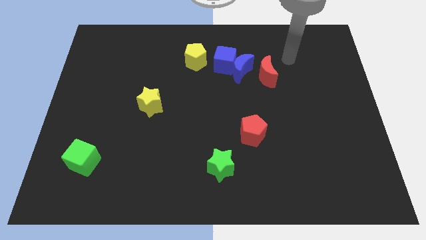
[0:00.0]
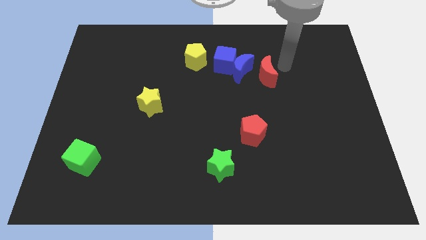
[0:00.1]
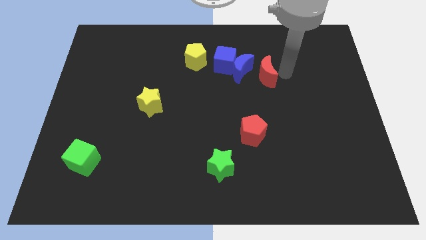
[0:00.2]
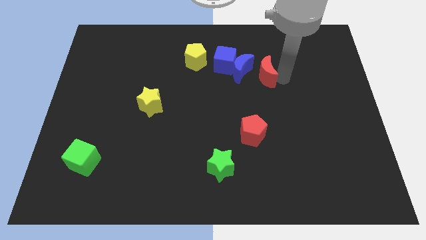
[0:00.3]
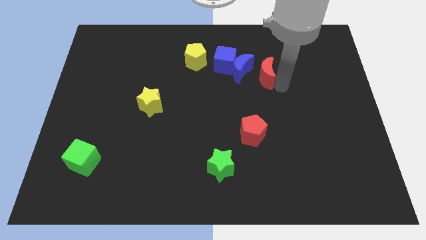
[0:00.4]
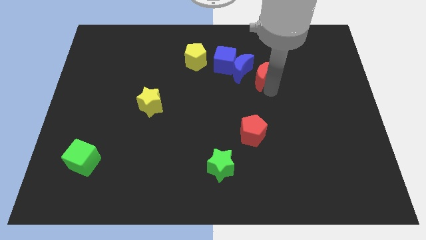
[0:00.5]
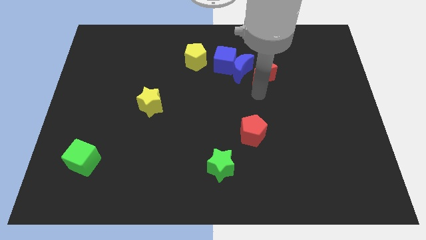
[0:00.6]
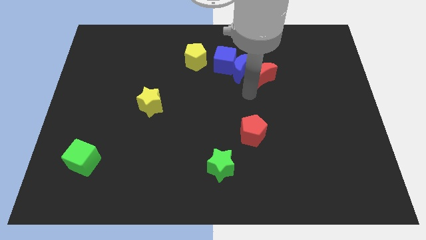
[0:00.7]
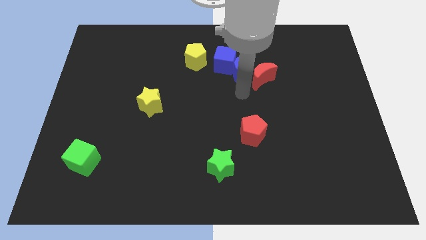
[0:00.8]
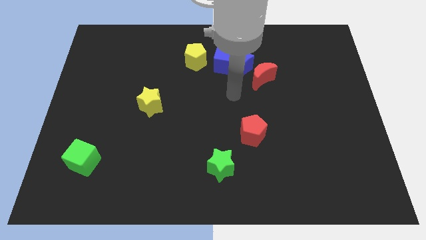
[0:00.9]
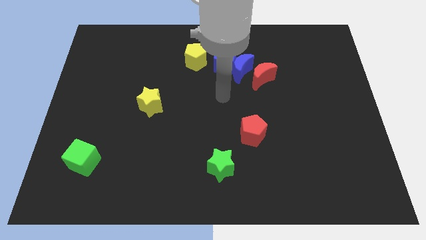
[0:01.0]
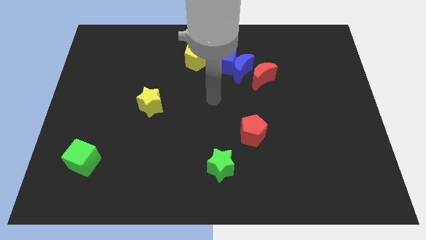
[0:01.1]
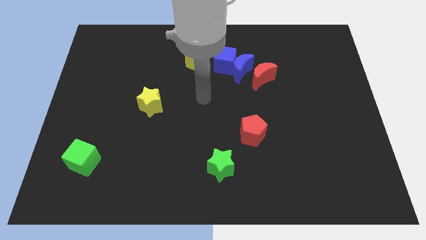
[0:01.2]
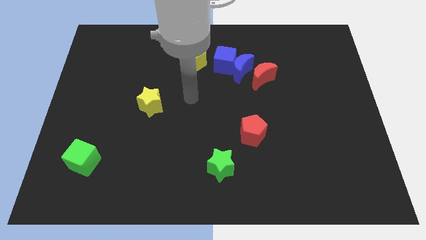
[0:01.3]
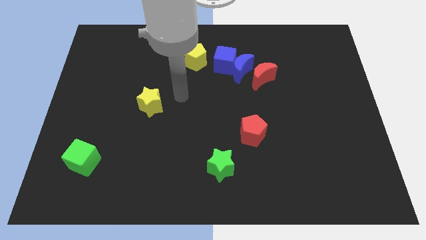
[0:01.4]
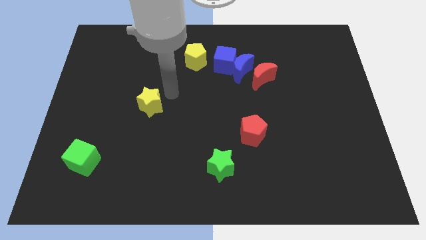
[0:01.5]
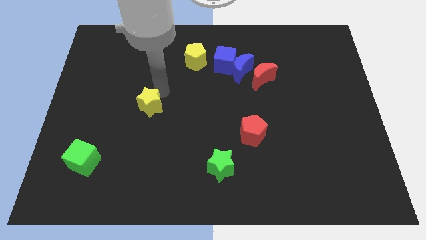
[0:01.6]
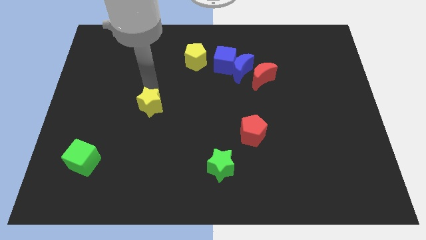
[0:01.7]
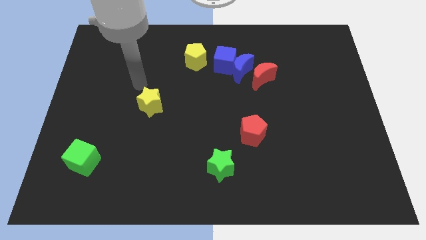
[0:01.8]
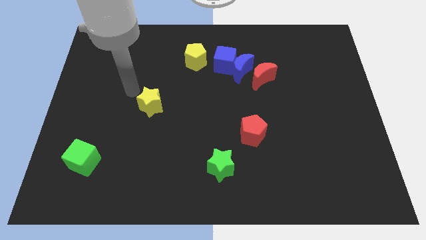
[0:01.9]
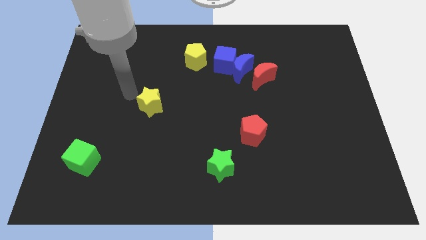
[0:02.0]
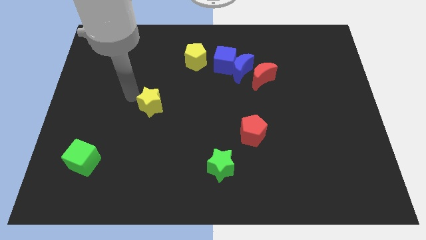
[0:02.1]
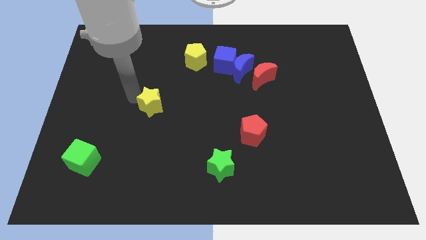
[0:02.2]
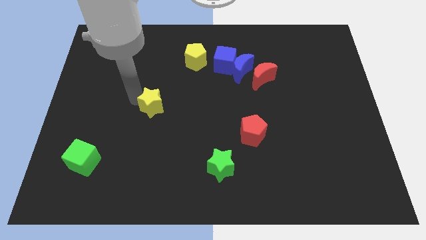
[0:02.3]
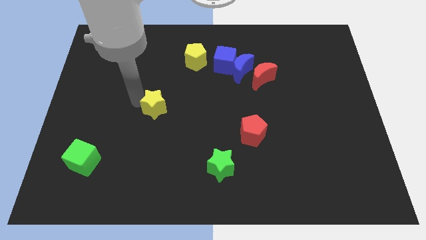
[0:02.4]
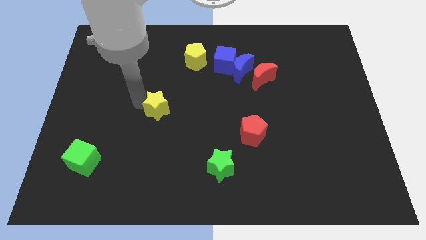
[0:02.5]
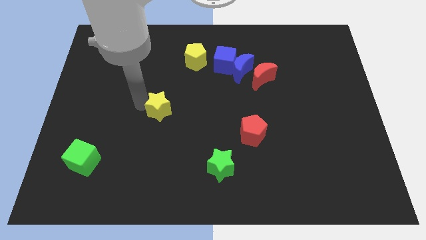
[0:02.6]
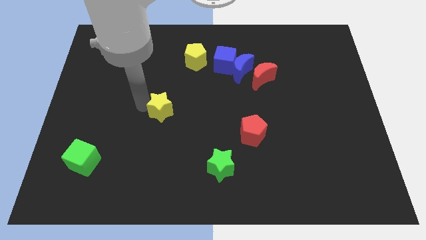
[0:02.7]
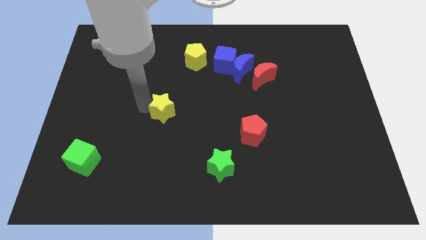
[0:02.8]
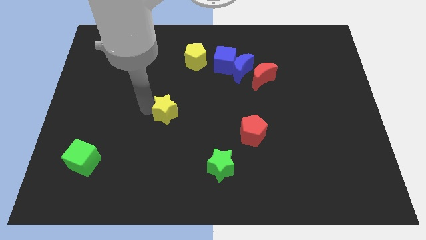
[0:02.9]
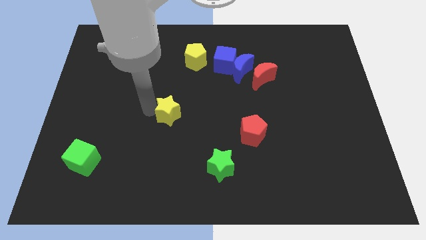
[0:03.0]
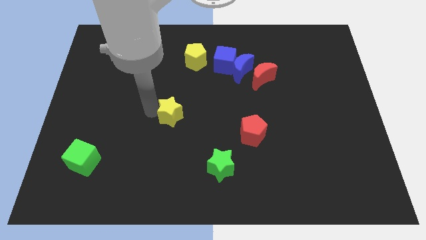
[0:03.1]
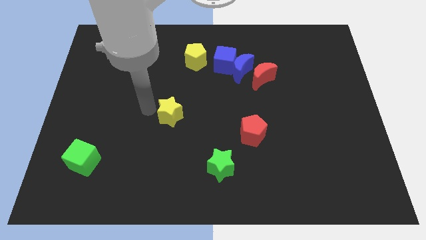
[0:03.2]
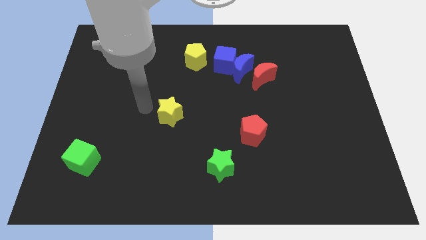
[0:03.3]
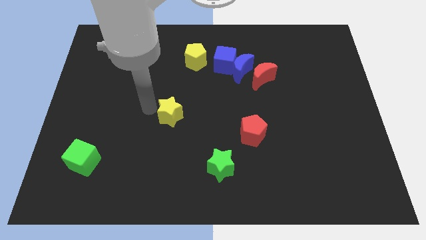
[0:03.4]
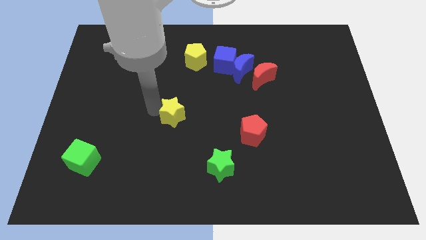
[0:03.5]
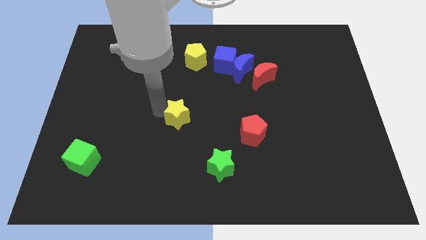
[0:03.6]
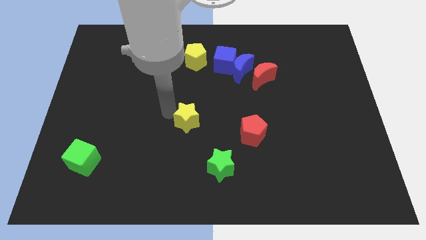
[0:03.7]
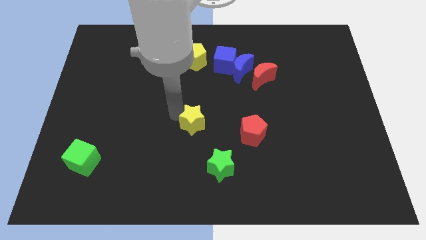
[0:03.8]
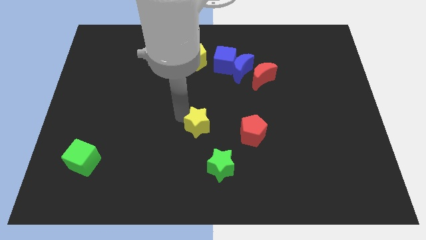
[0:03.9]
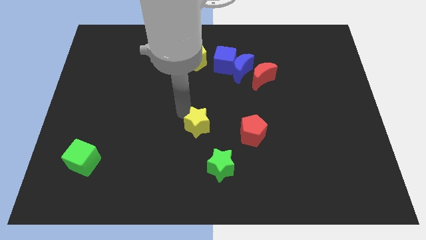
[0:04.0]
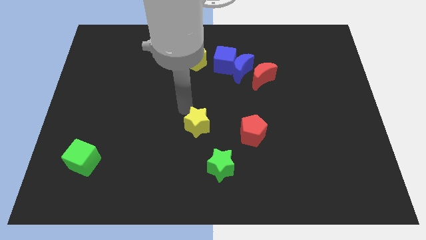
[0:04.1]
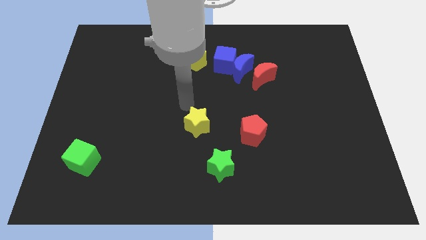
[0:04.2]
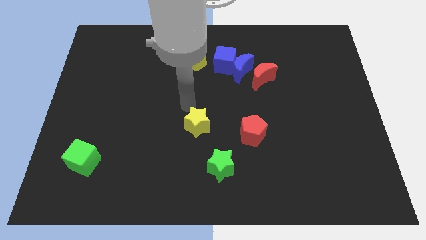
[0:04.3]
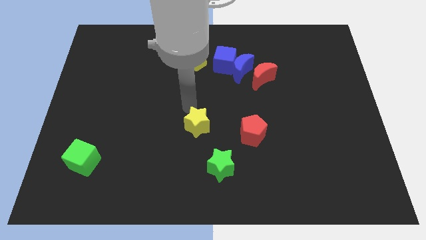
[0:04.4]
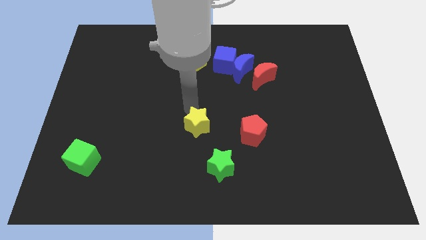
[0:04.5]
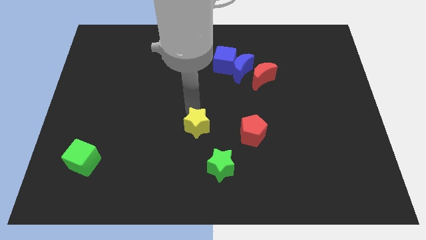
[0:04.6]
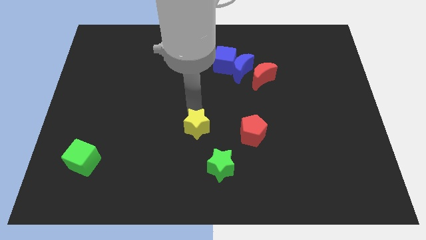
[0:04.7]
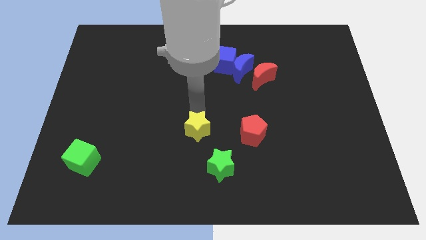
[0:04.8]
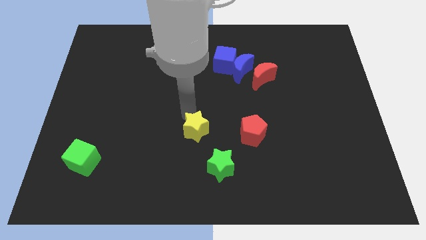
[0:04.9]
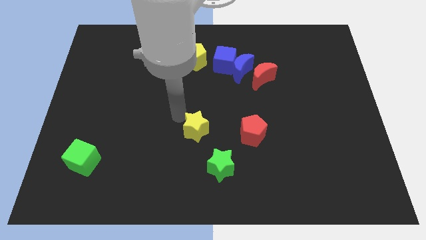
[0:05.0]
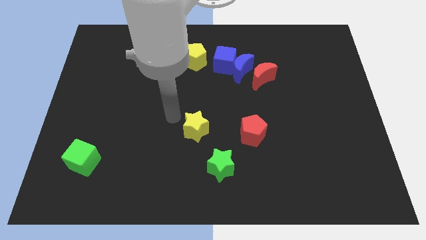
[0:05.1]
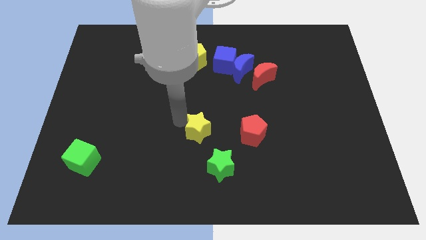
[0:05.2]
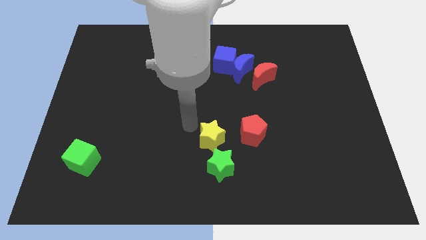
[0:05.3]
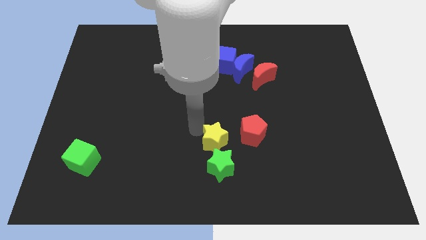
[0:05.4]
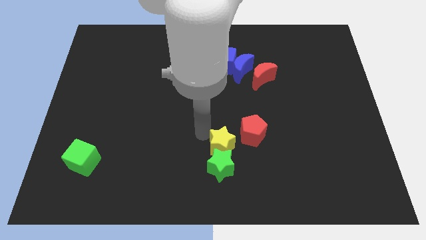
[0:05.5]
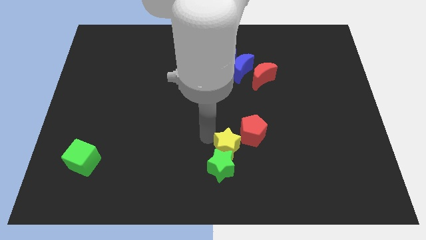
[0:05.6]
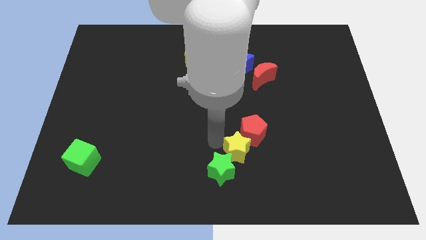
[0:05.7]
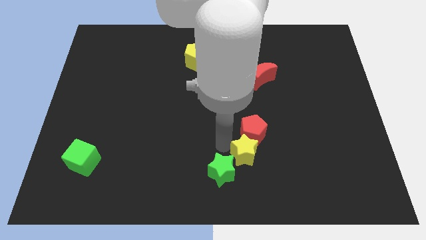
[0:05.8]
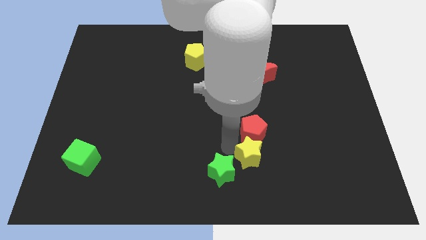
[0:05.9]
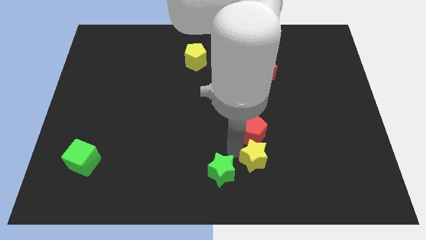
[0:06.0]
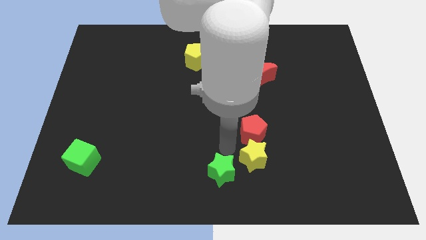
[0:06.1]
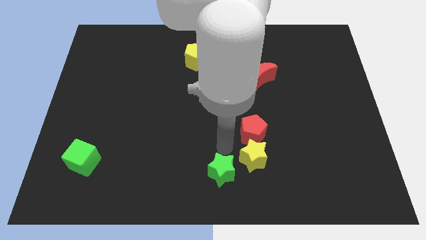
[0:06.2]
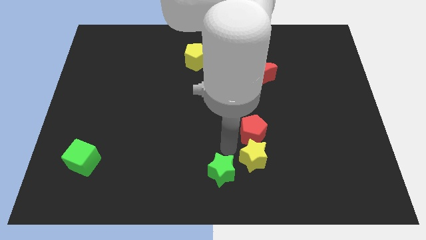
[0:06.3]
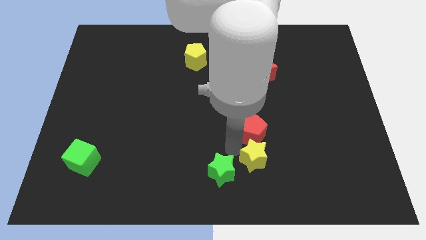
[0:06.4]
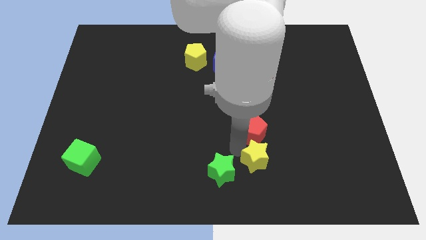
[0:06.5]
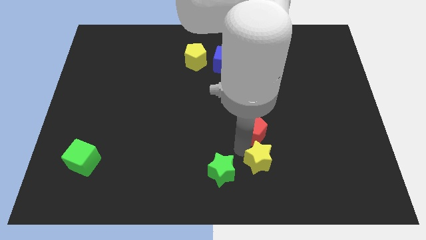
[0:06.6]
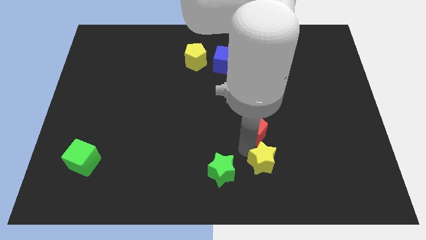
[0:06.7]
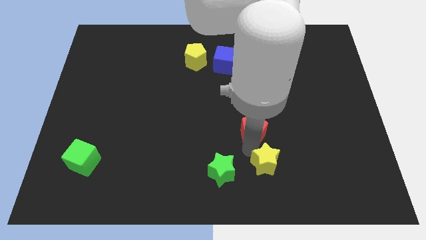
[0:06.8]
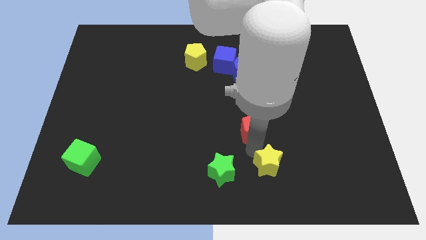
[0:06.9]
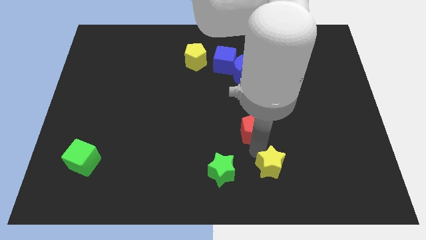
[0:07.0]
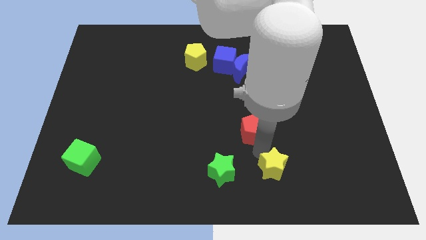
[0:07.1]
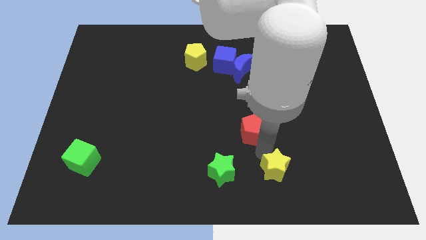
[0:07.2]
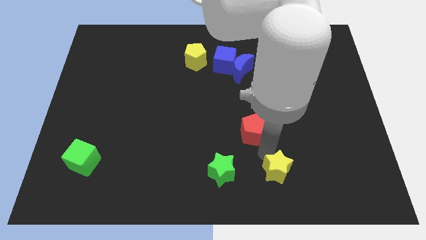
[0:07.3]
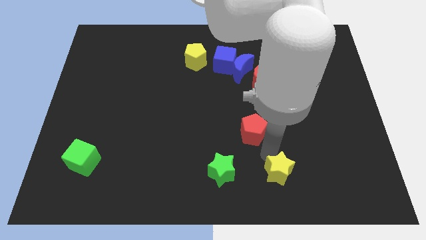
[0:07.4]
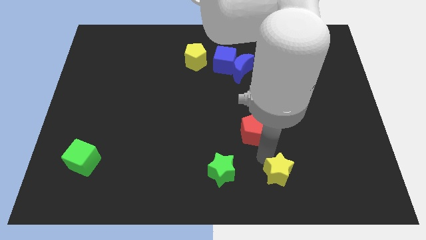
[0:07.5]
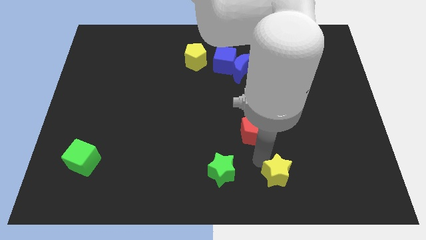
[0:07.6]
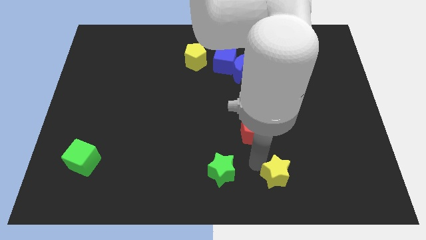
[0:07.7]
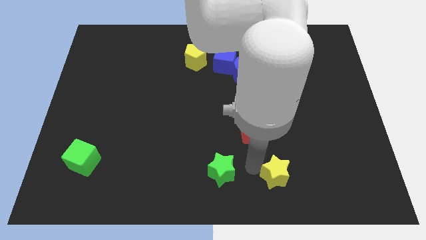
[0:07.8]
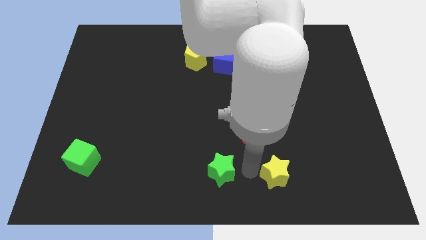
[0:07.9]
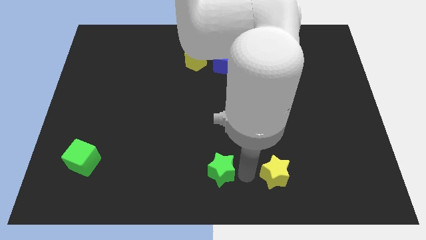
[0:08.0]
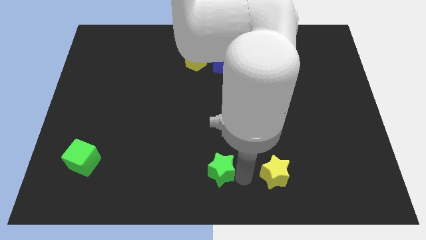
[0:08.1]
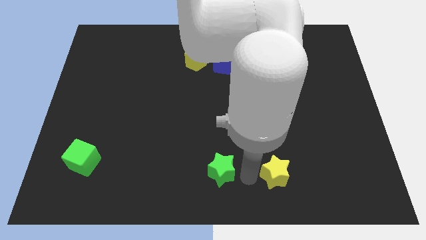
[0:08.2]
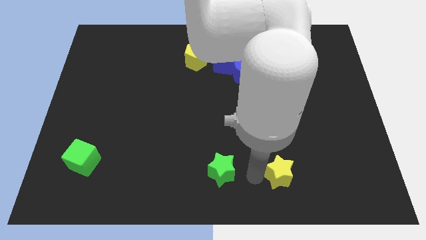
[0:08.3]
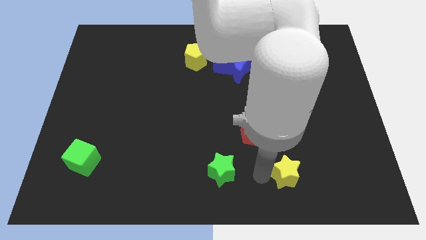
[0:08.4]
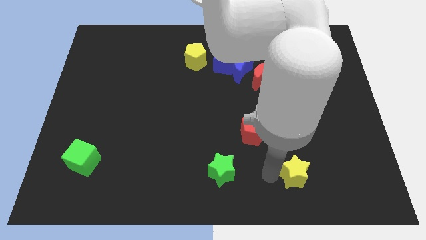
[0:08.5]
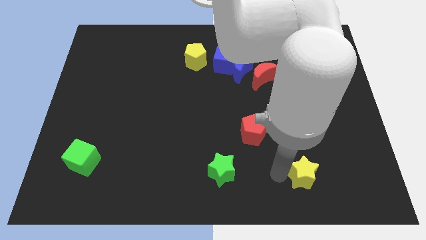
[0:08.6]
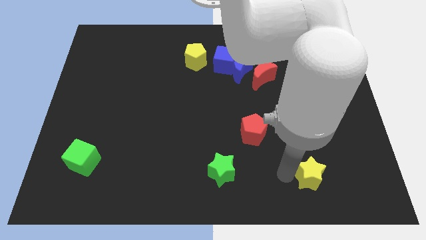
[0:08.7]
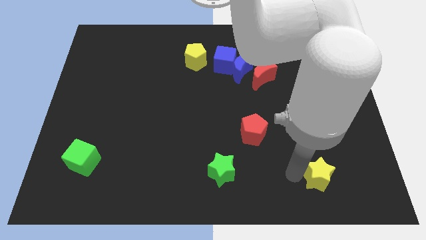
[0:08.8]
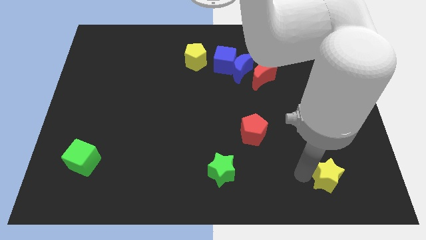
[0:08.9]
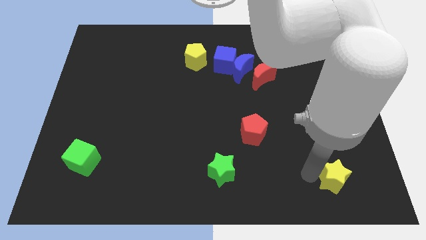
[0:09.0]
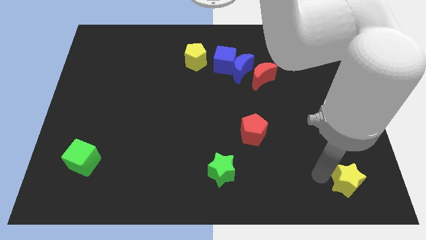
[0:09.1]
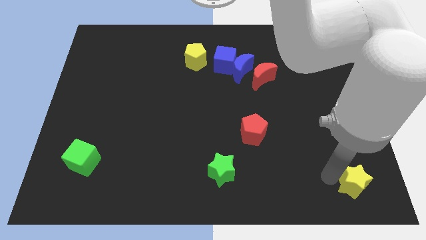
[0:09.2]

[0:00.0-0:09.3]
push the yellow star to the bottom right
